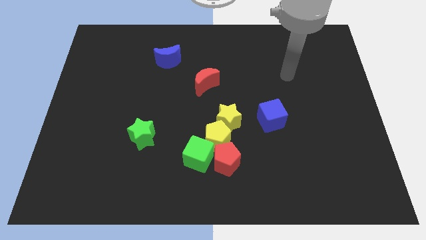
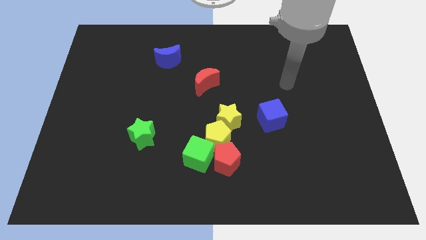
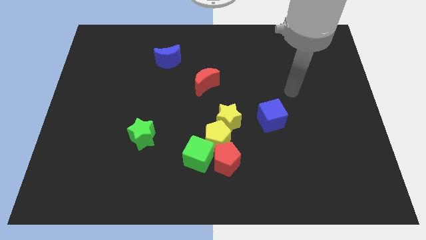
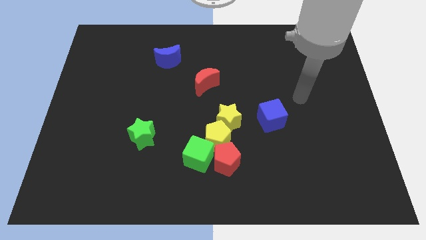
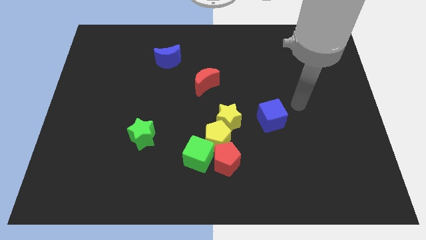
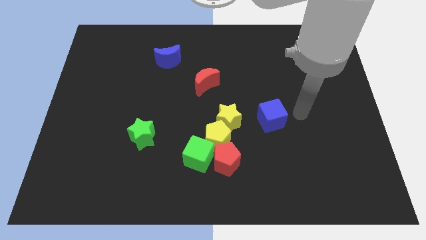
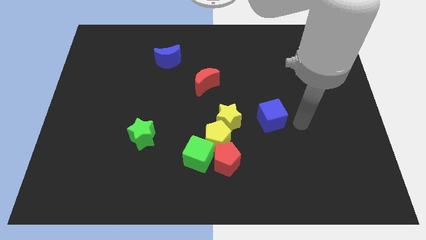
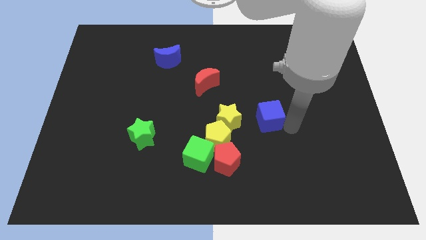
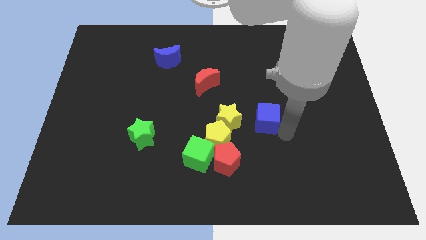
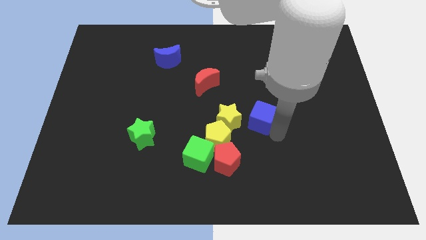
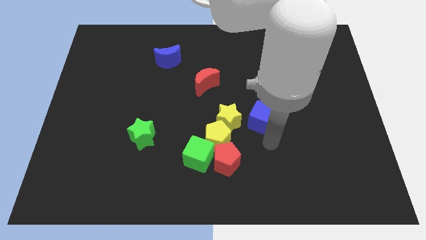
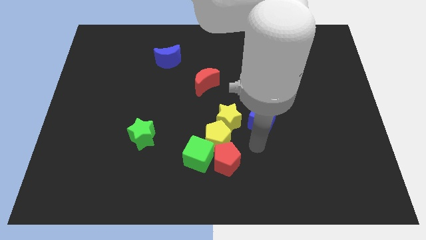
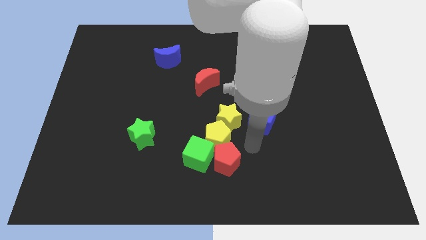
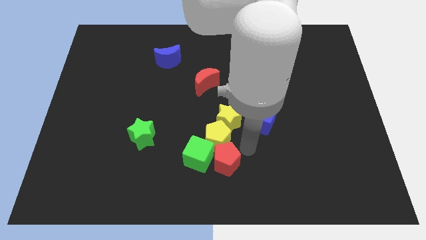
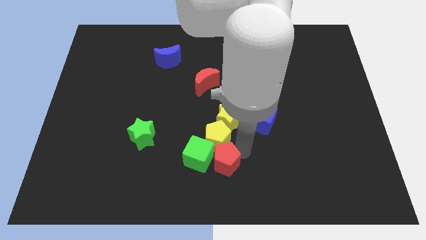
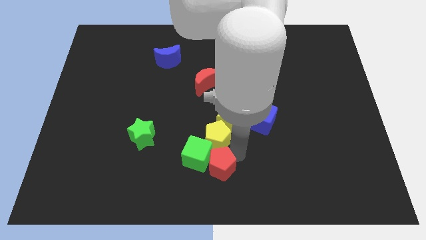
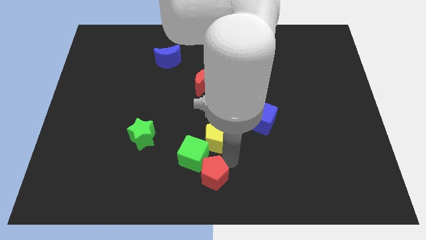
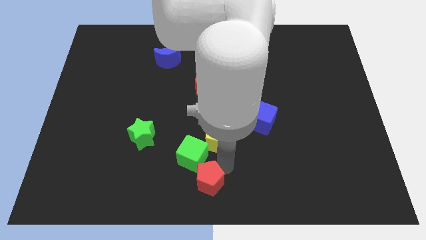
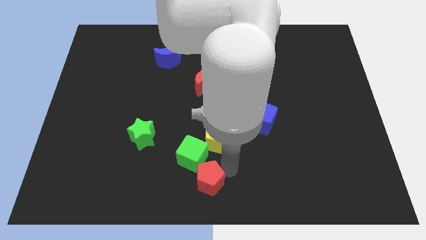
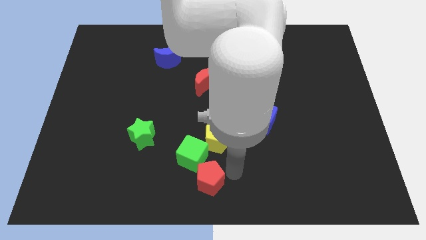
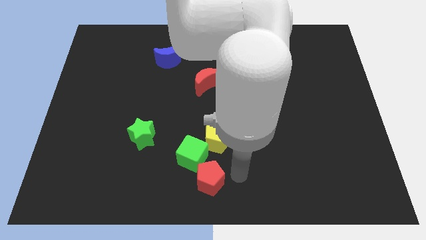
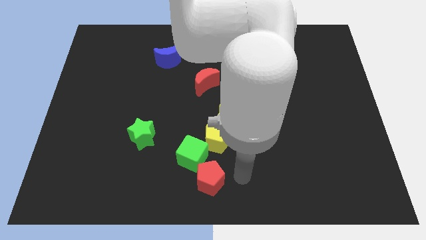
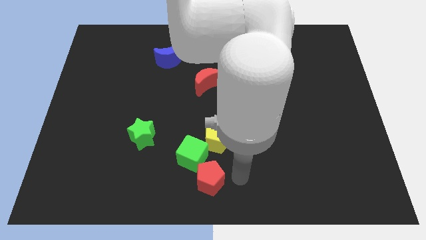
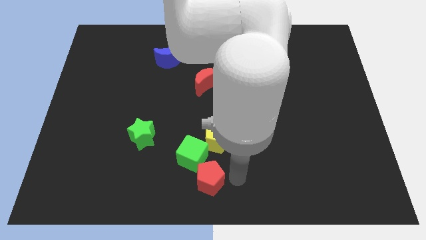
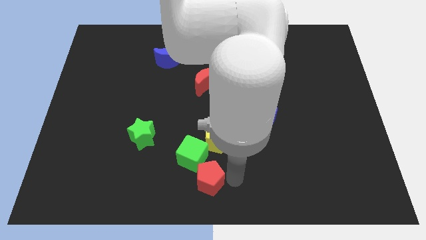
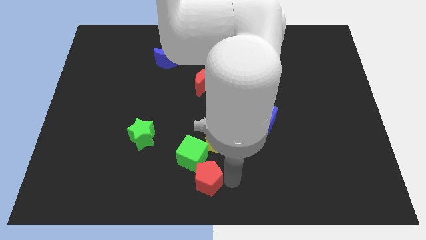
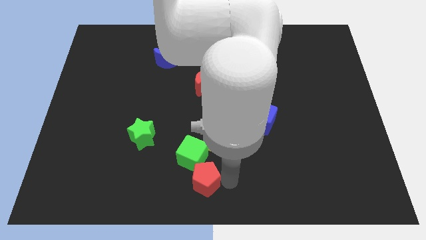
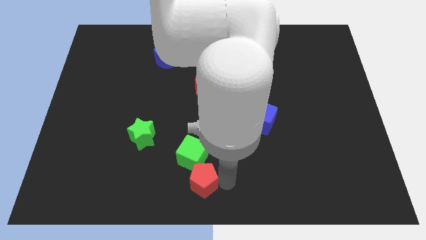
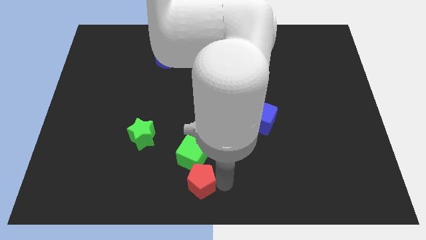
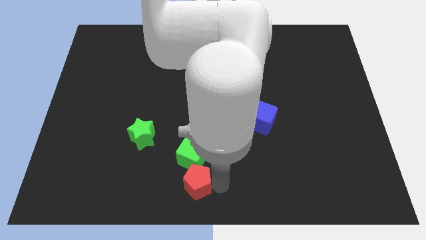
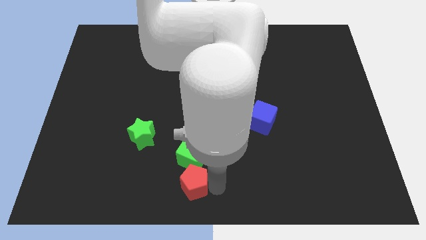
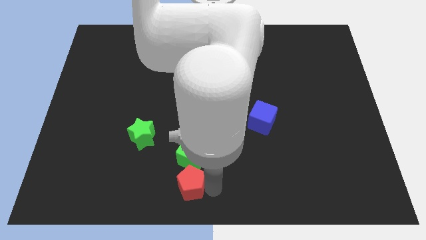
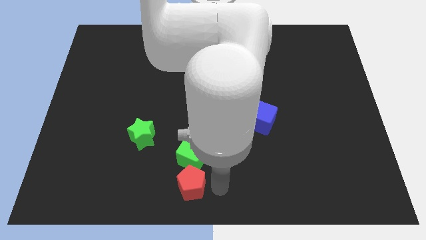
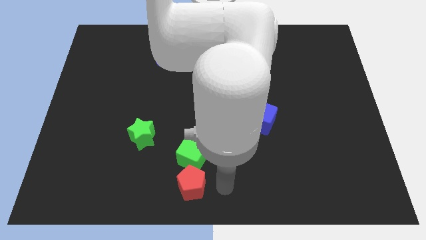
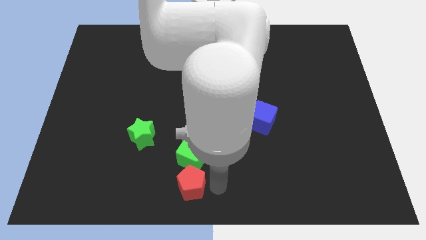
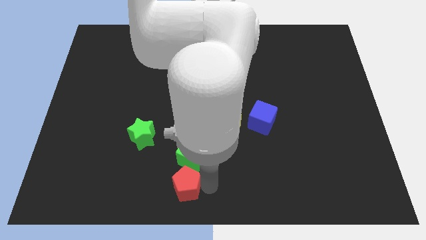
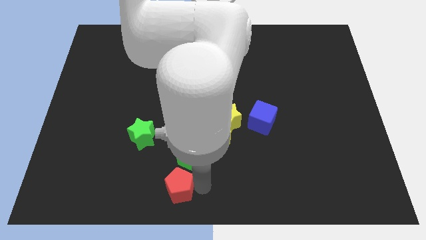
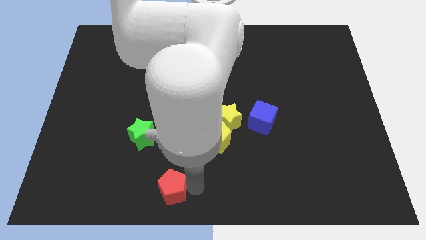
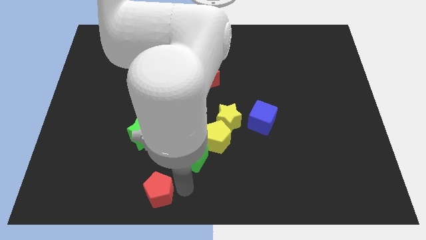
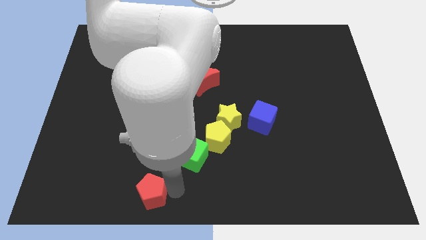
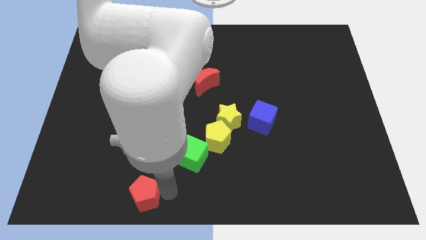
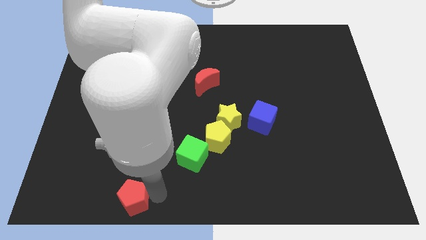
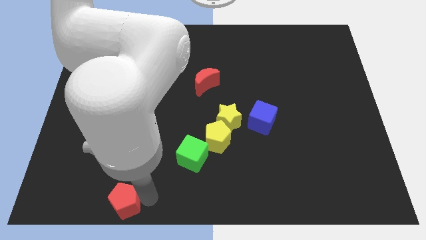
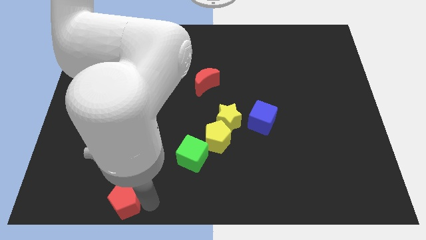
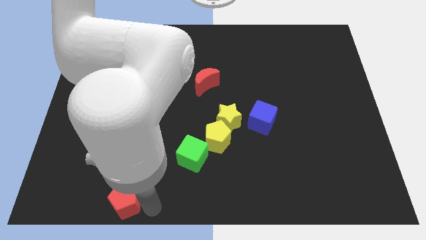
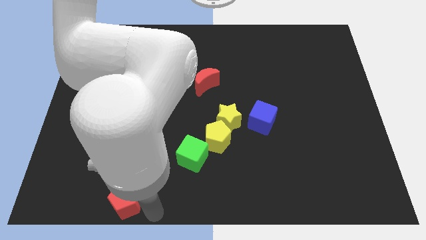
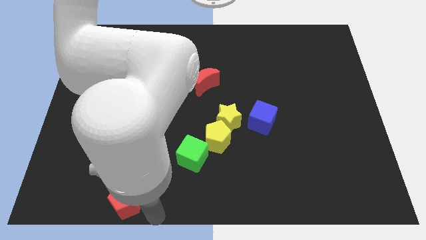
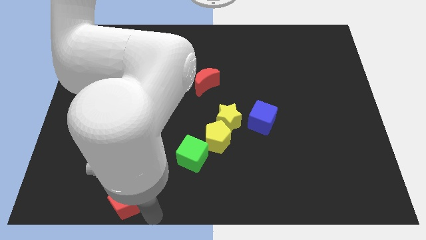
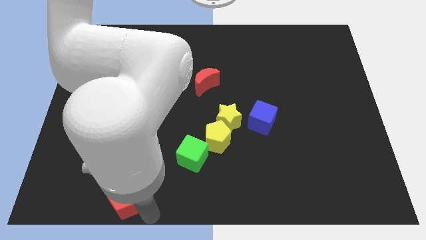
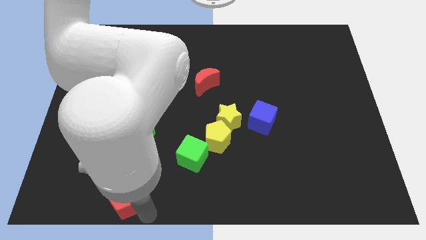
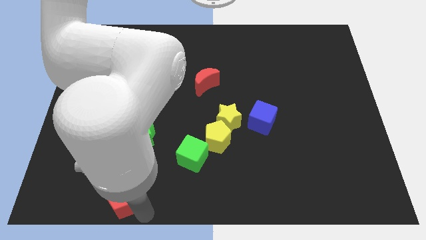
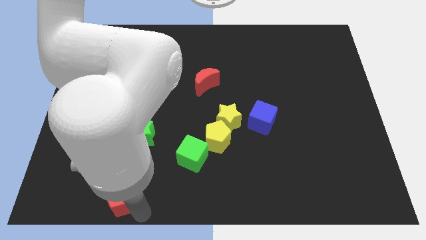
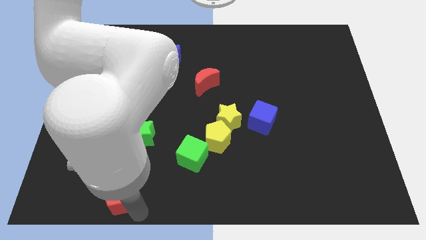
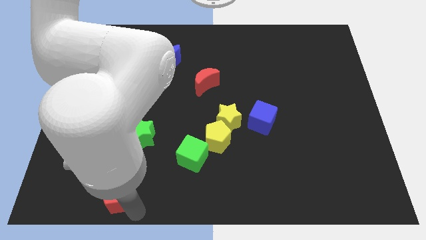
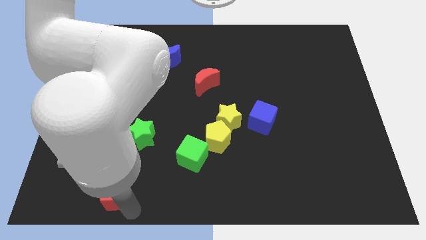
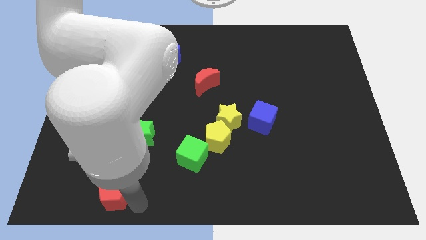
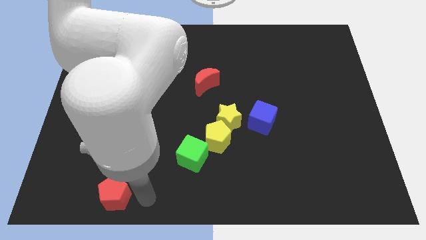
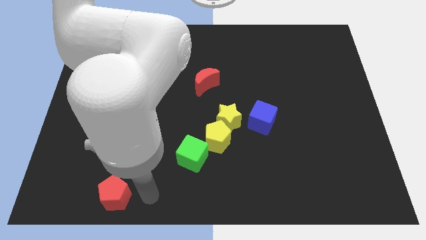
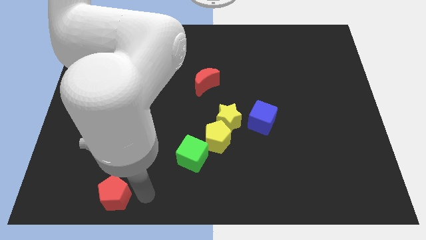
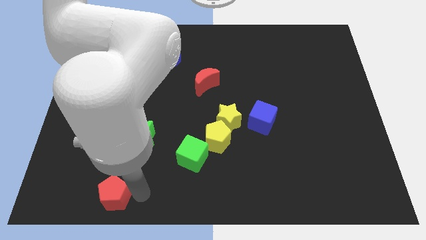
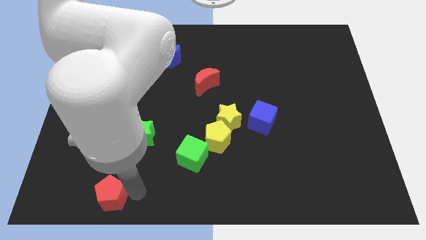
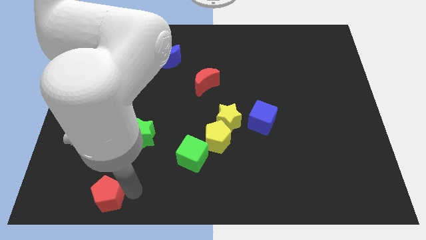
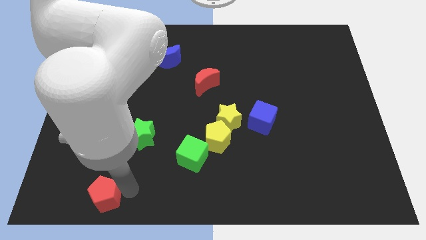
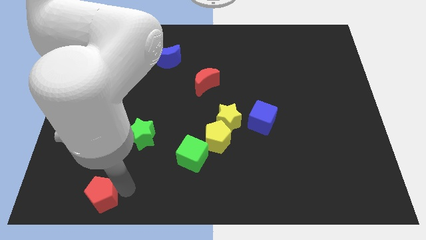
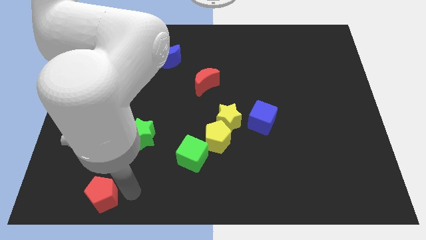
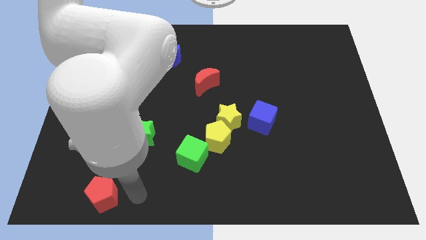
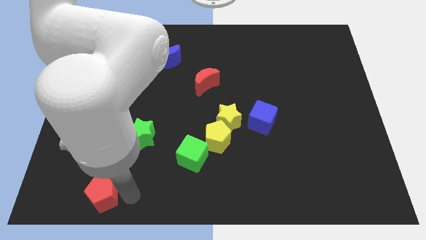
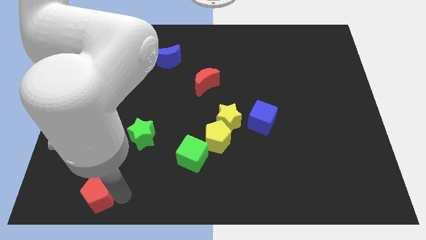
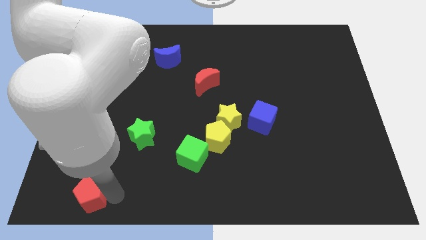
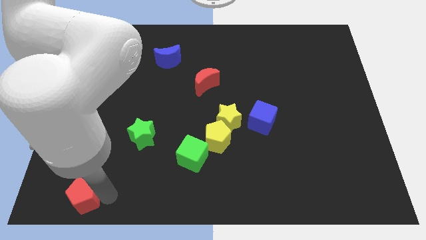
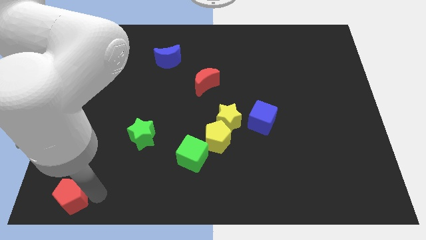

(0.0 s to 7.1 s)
put the red pentagon to the bottom left corner
